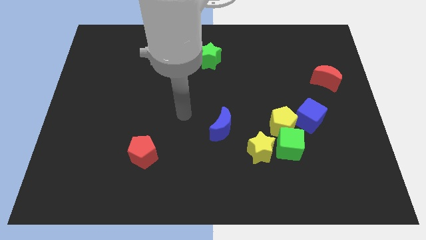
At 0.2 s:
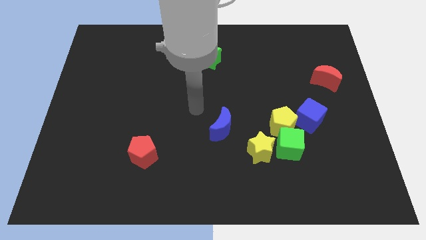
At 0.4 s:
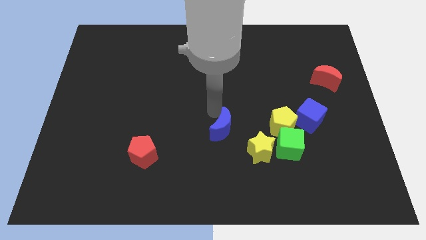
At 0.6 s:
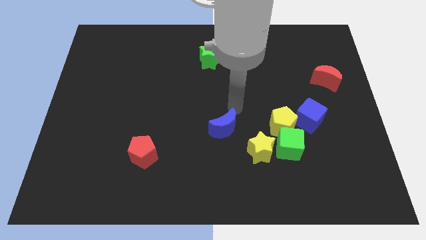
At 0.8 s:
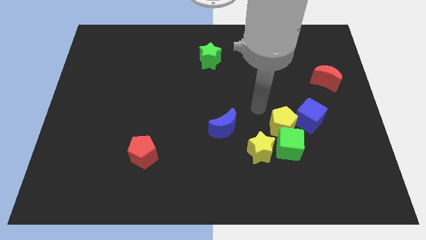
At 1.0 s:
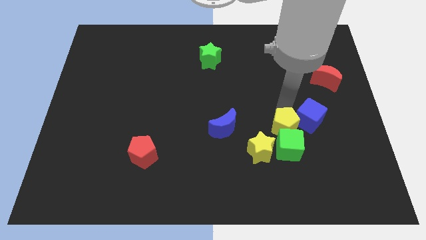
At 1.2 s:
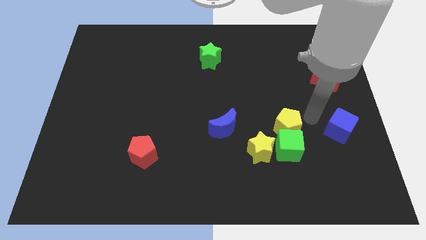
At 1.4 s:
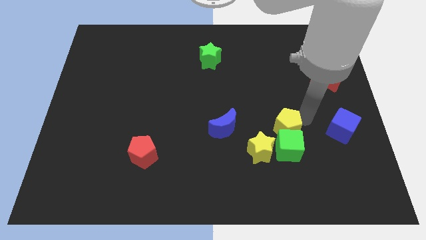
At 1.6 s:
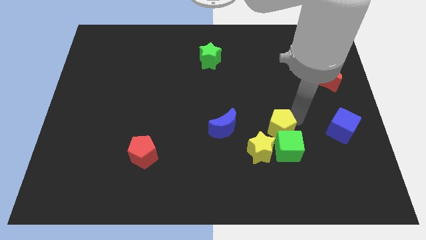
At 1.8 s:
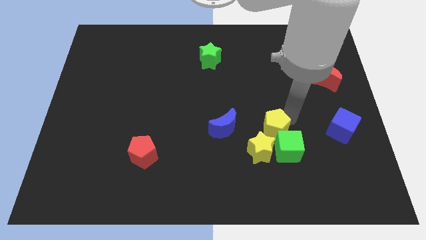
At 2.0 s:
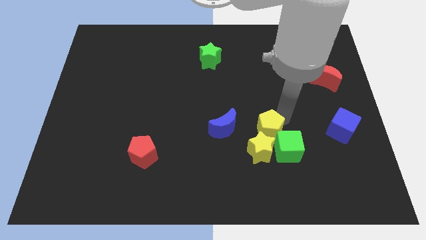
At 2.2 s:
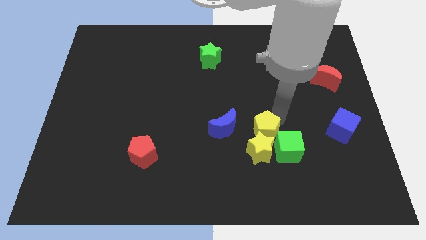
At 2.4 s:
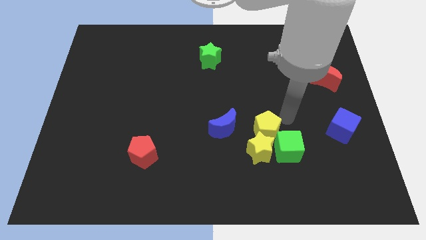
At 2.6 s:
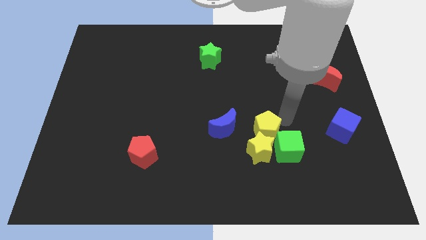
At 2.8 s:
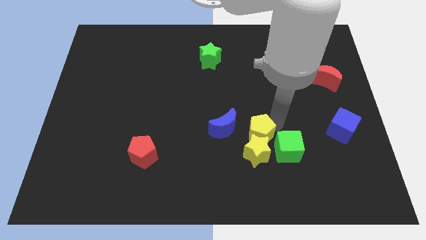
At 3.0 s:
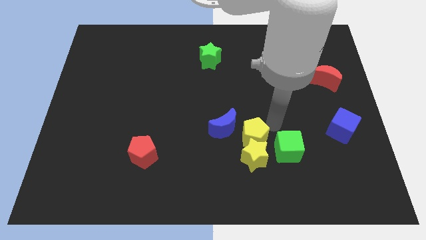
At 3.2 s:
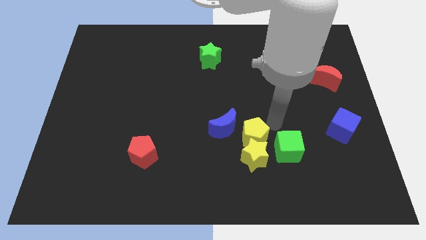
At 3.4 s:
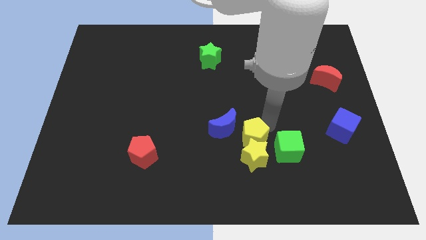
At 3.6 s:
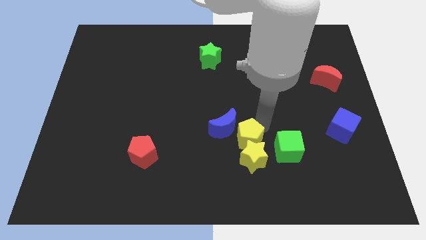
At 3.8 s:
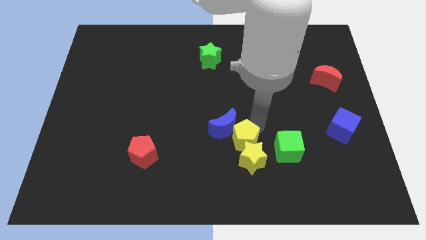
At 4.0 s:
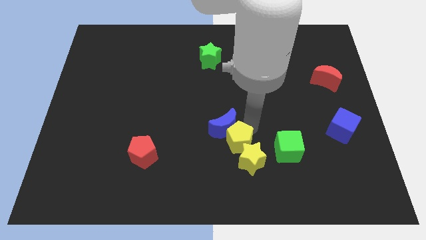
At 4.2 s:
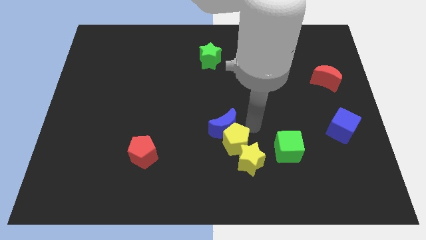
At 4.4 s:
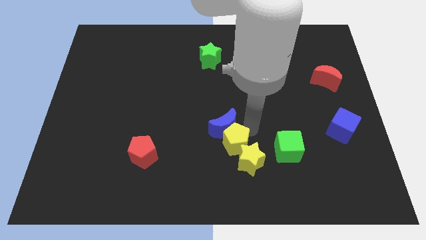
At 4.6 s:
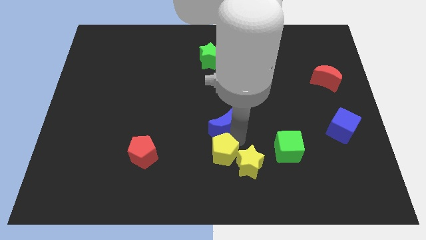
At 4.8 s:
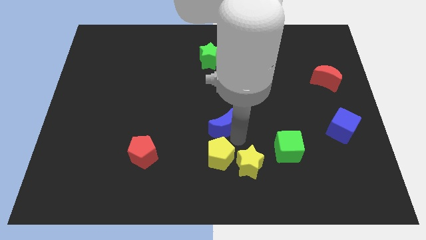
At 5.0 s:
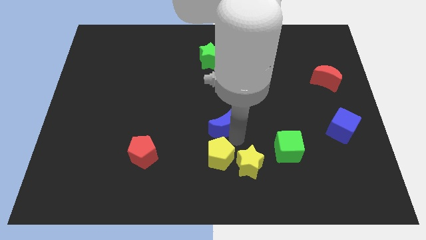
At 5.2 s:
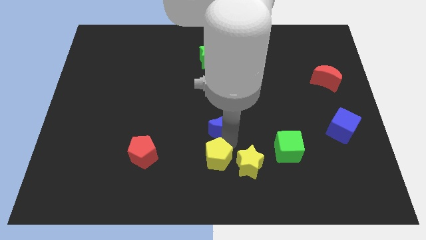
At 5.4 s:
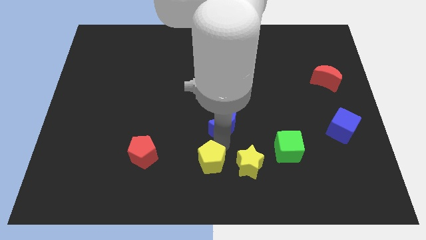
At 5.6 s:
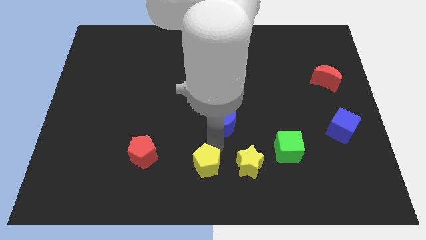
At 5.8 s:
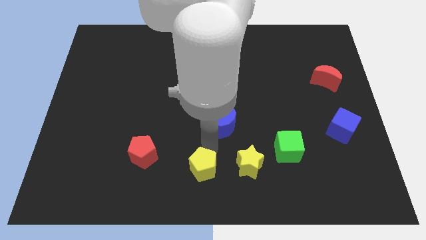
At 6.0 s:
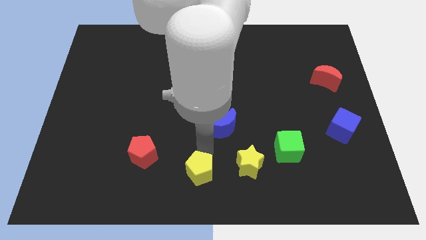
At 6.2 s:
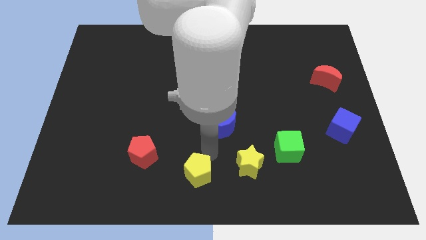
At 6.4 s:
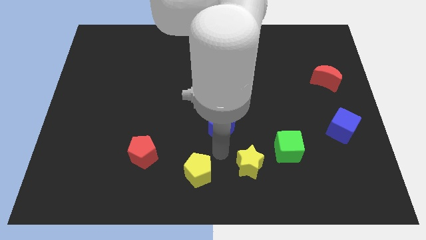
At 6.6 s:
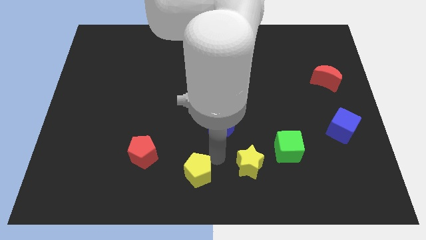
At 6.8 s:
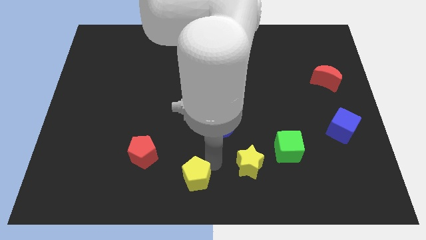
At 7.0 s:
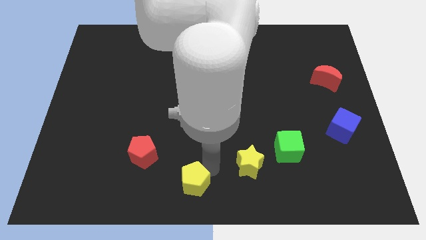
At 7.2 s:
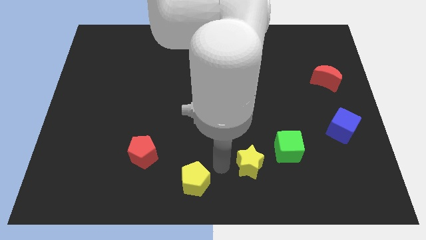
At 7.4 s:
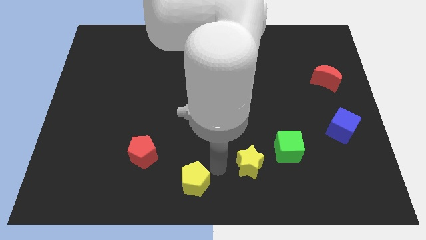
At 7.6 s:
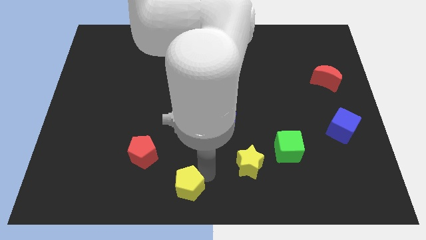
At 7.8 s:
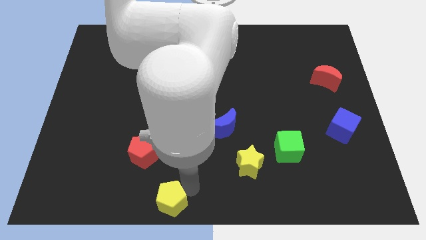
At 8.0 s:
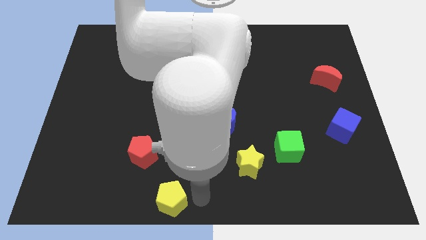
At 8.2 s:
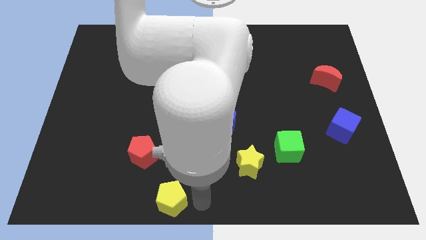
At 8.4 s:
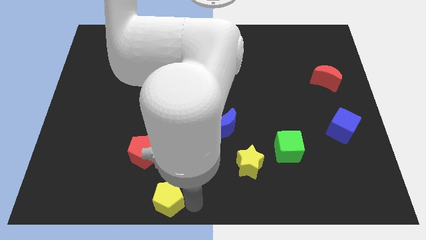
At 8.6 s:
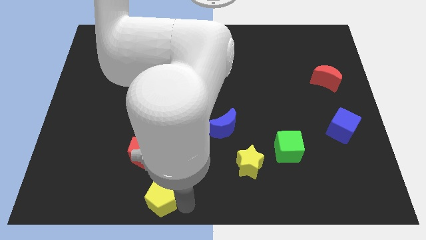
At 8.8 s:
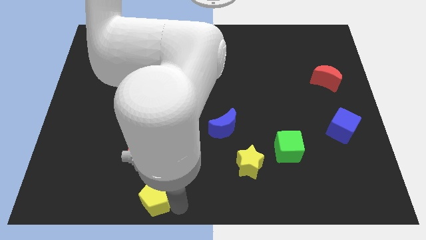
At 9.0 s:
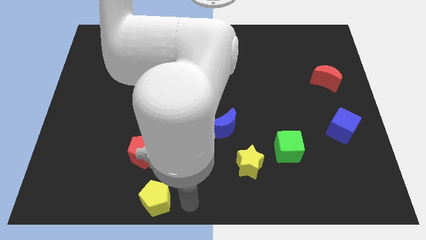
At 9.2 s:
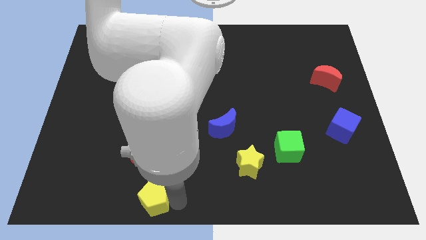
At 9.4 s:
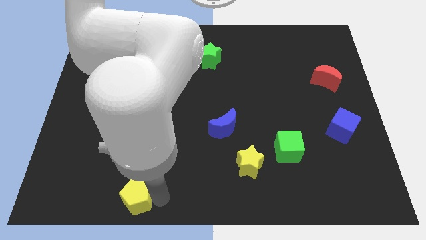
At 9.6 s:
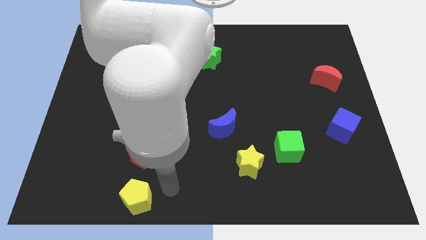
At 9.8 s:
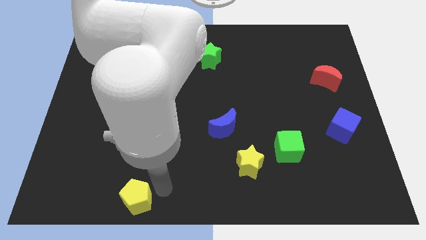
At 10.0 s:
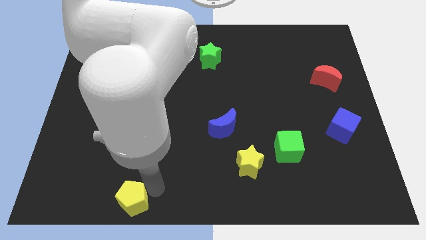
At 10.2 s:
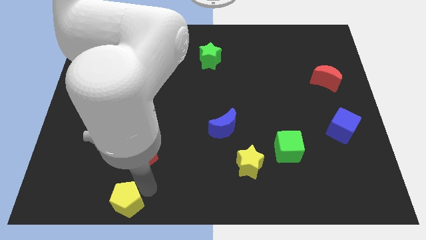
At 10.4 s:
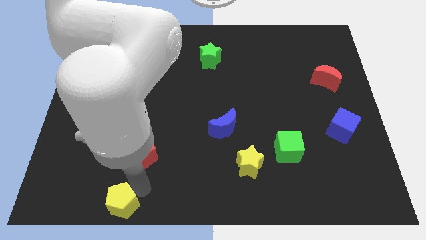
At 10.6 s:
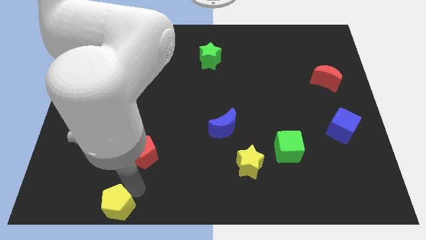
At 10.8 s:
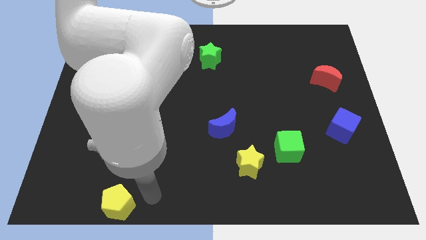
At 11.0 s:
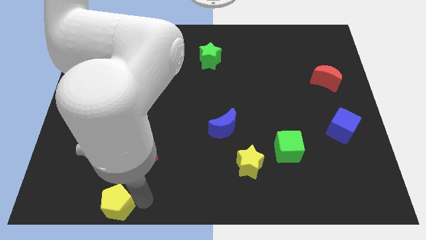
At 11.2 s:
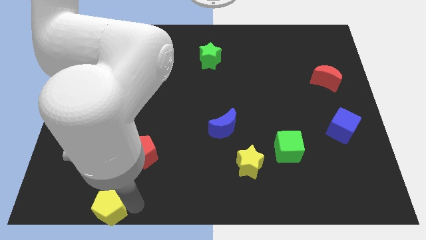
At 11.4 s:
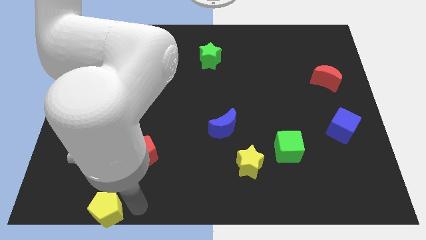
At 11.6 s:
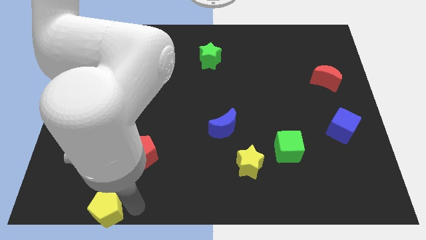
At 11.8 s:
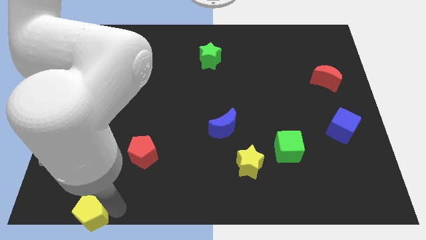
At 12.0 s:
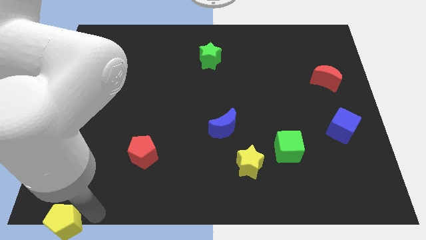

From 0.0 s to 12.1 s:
slide the yellow pentagon to the bottom left of the board

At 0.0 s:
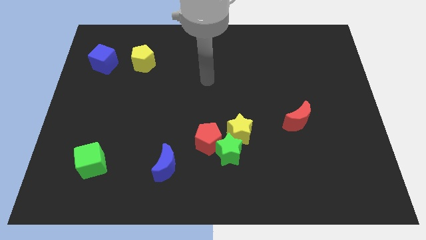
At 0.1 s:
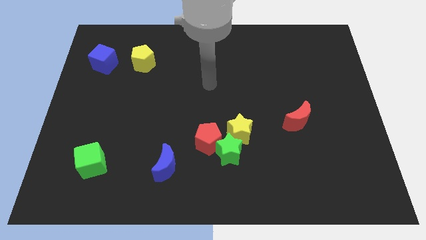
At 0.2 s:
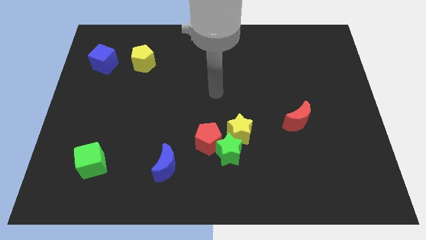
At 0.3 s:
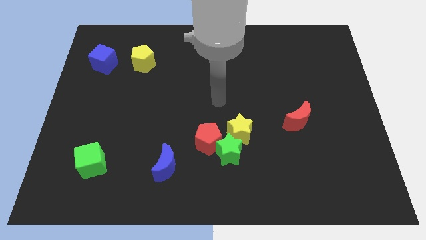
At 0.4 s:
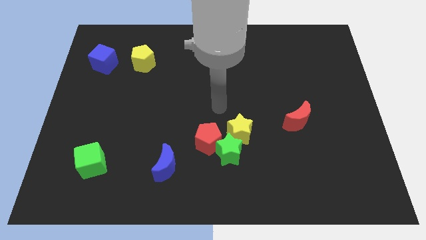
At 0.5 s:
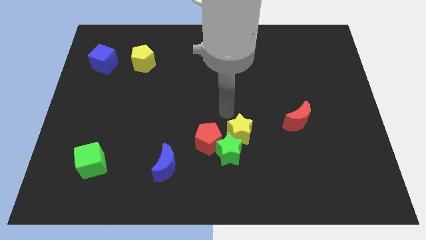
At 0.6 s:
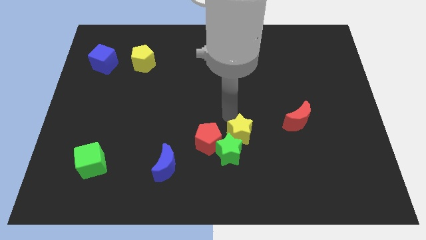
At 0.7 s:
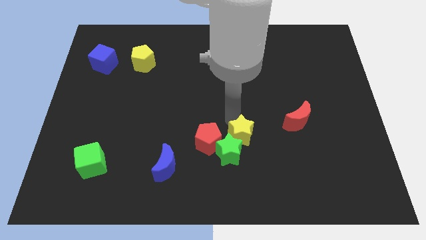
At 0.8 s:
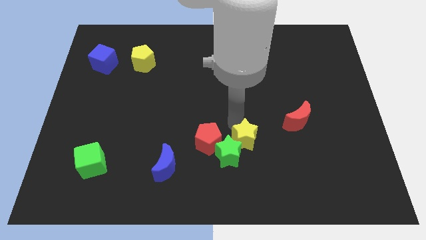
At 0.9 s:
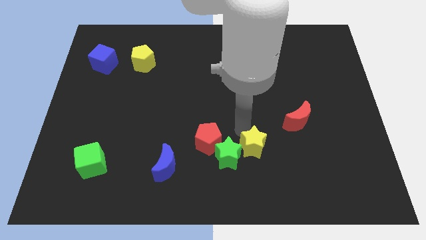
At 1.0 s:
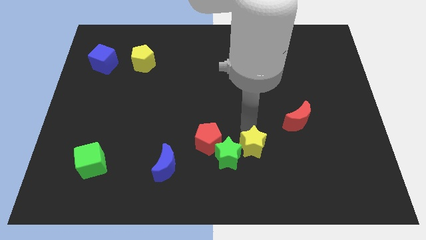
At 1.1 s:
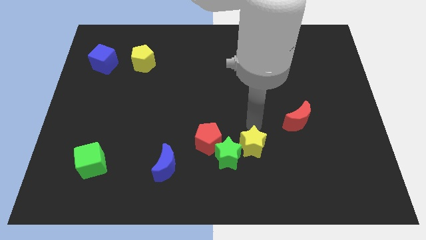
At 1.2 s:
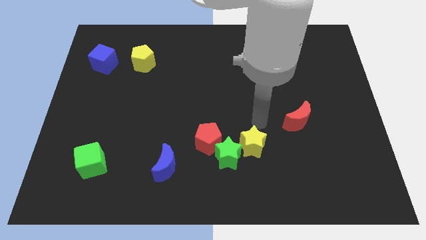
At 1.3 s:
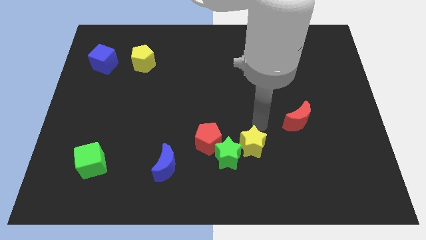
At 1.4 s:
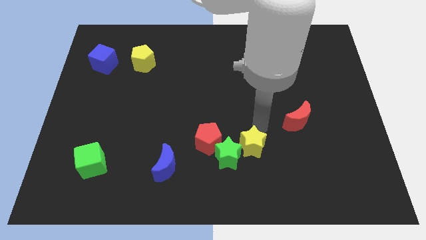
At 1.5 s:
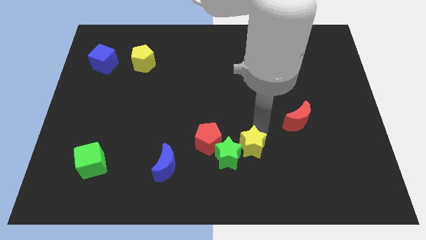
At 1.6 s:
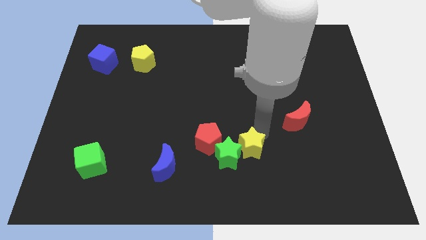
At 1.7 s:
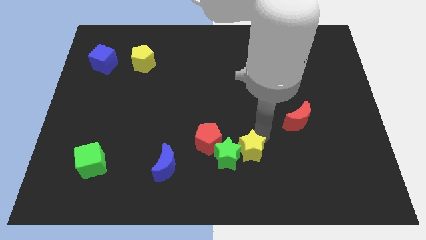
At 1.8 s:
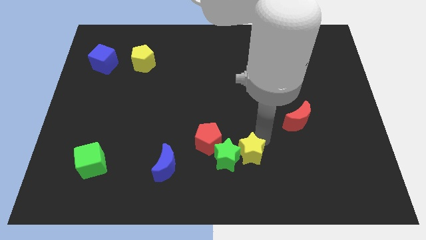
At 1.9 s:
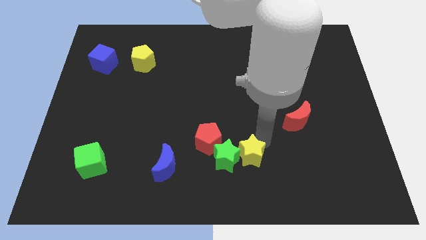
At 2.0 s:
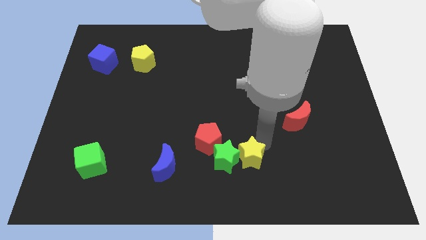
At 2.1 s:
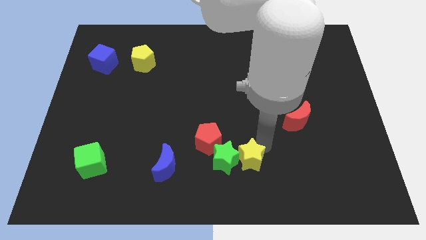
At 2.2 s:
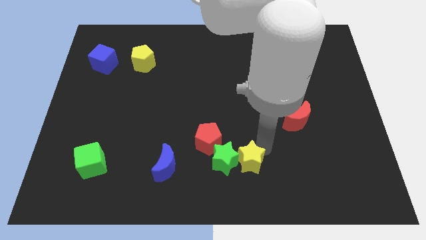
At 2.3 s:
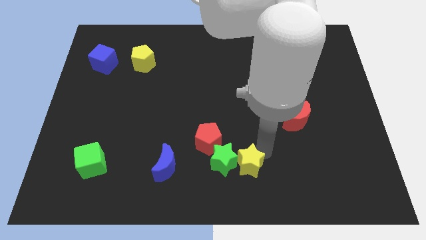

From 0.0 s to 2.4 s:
move the yellow star to the bottom
